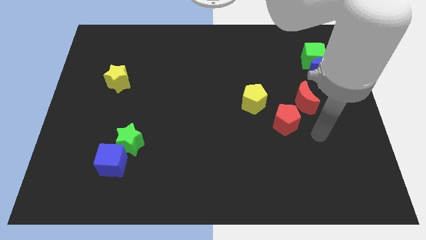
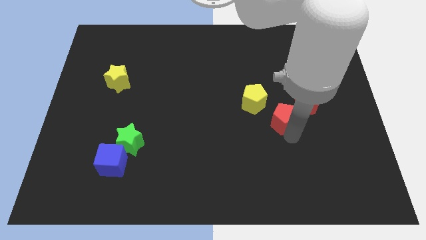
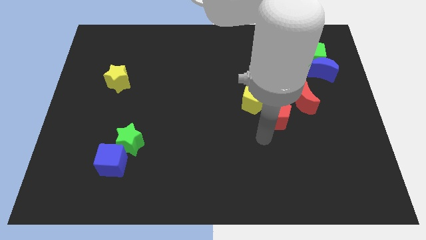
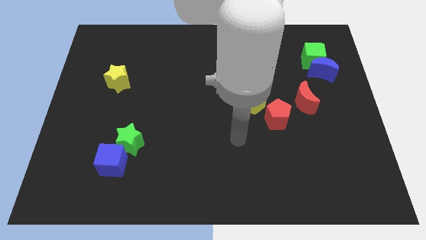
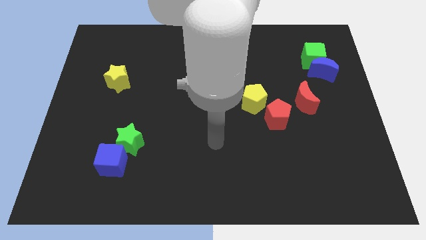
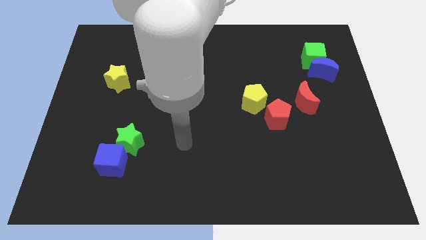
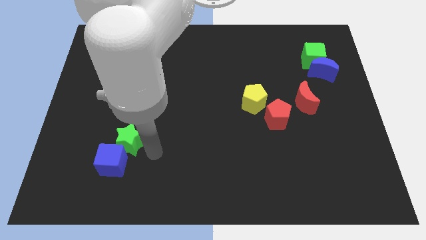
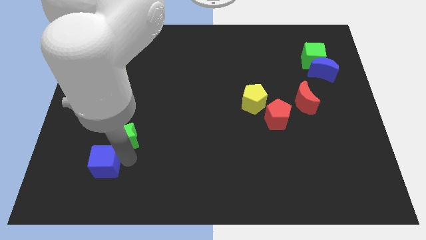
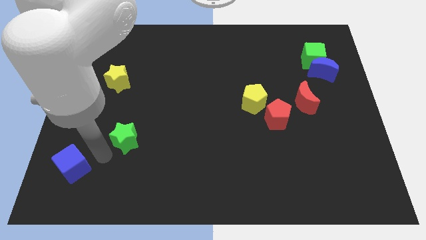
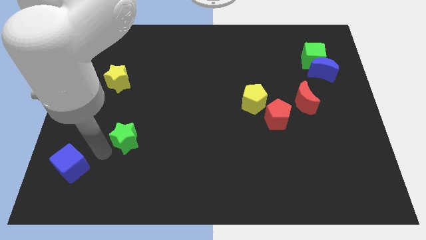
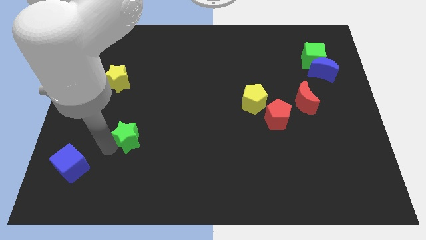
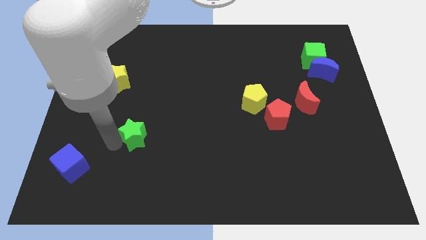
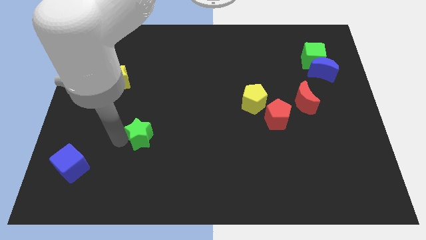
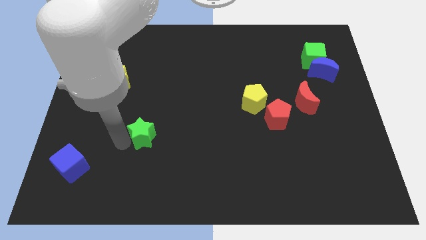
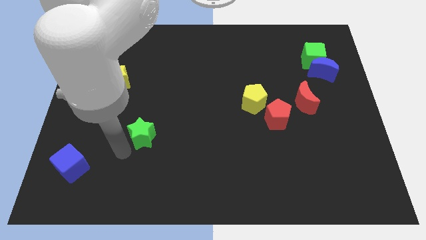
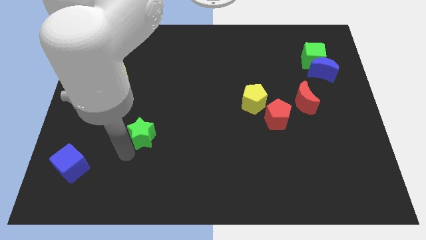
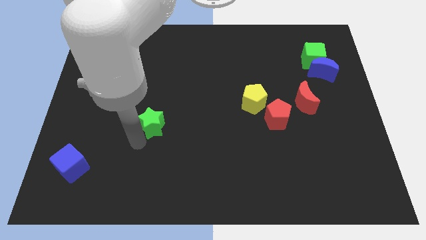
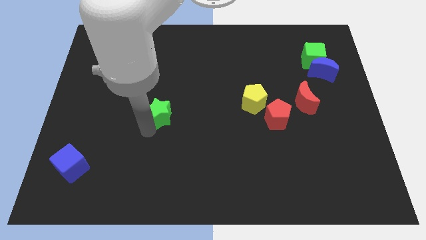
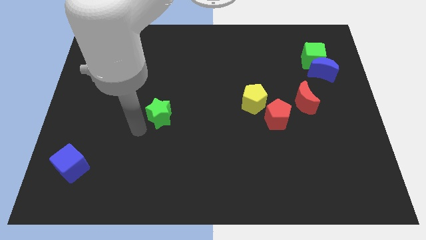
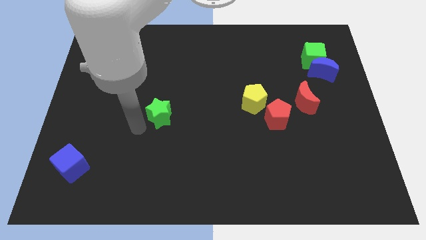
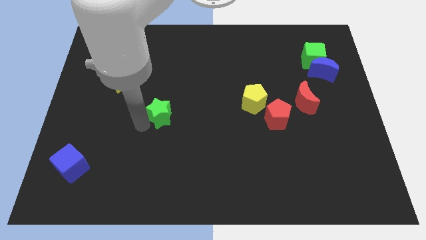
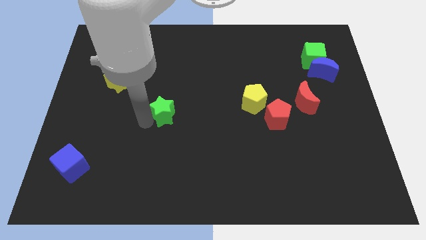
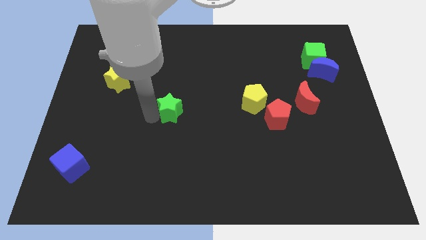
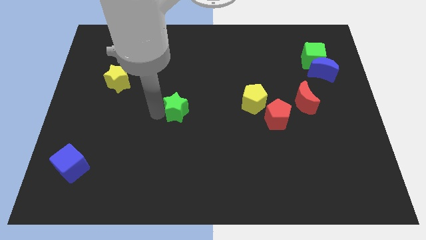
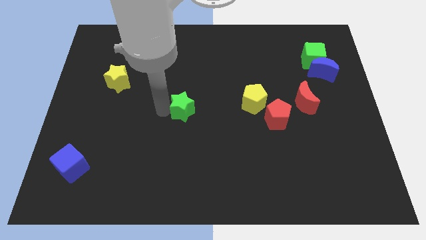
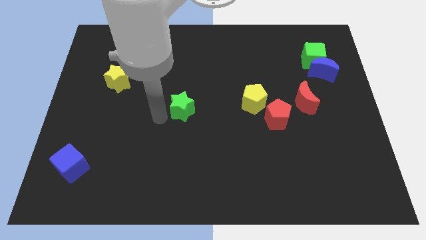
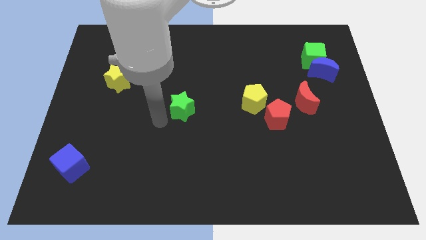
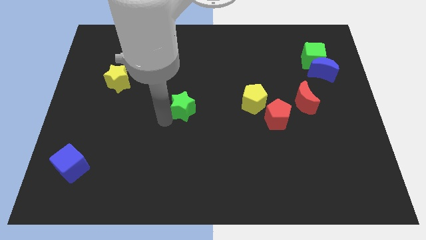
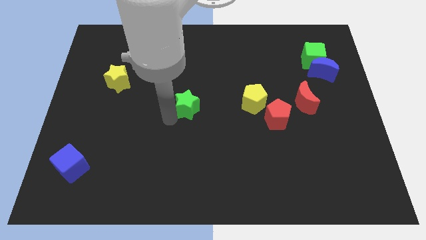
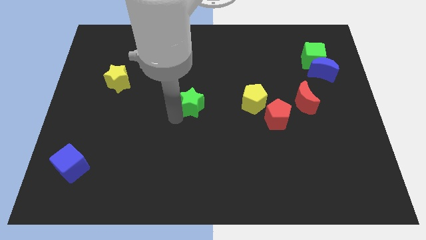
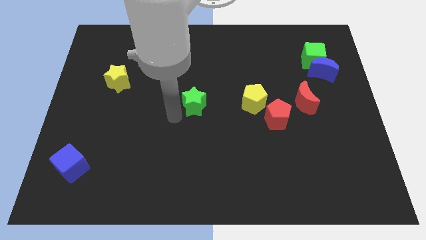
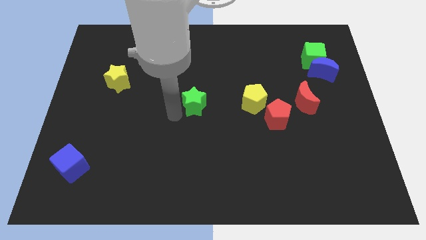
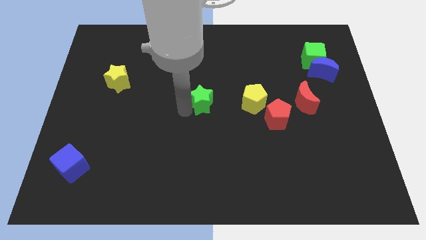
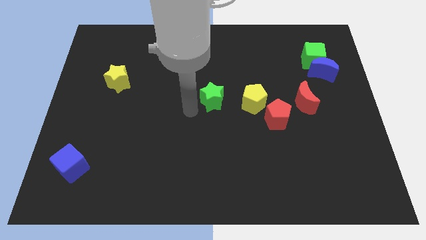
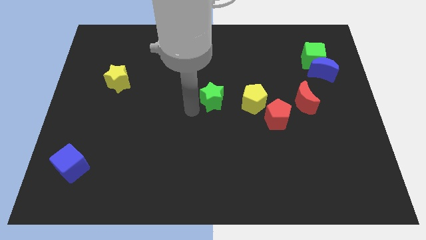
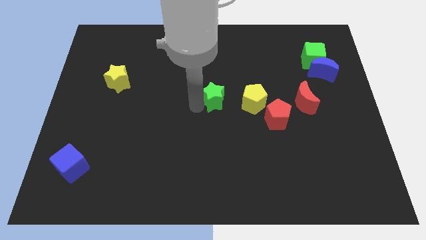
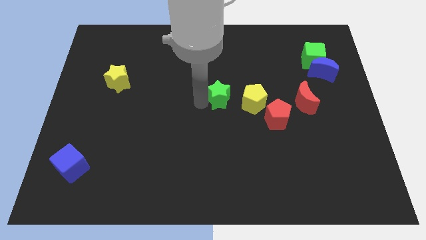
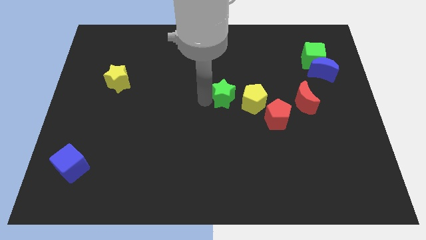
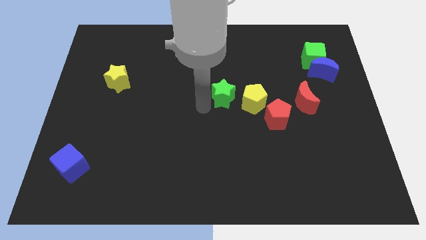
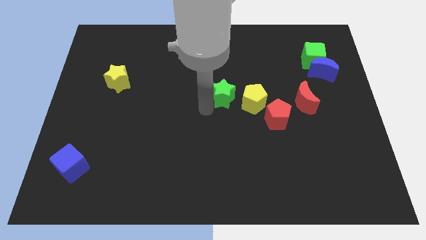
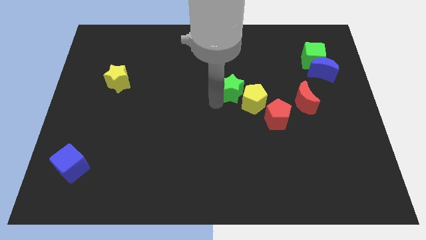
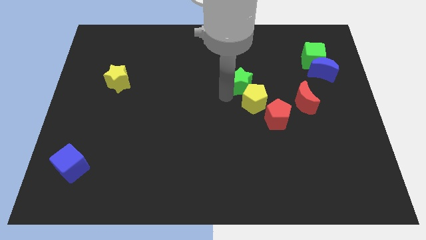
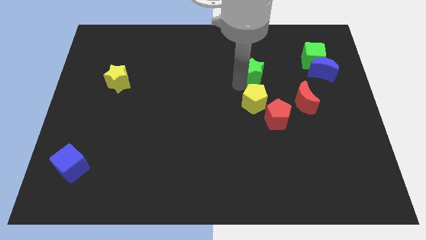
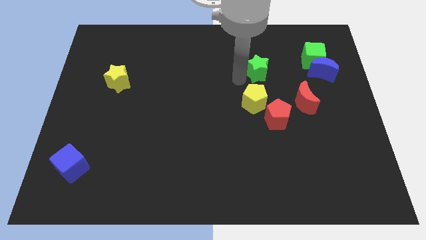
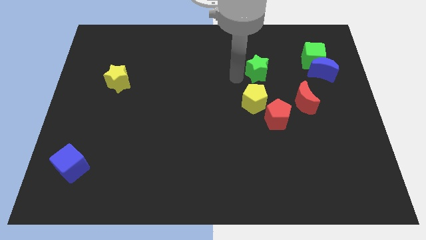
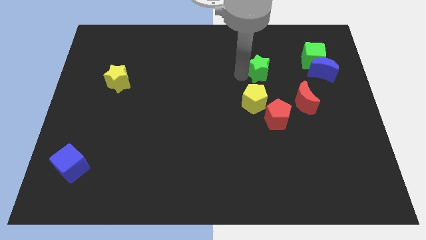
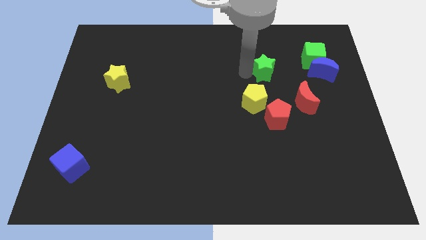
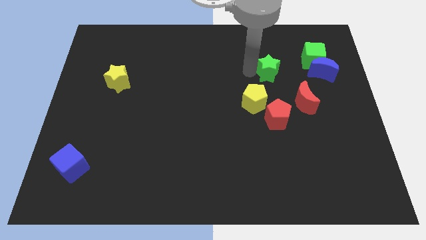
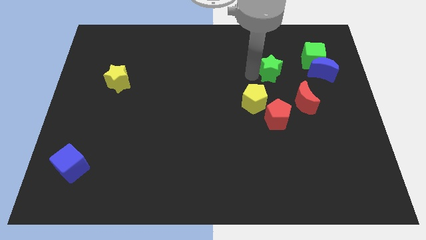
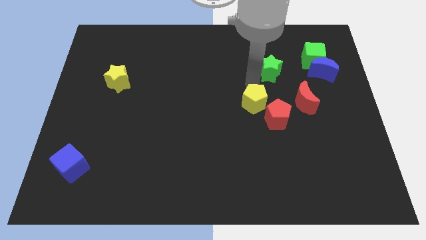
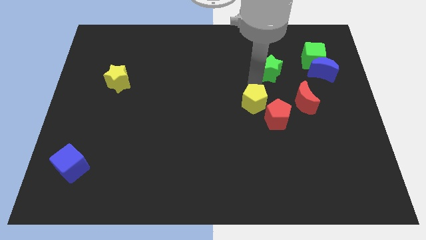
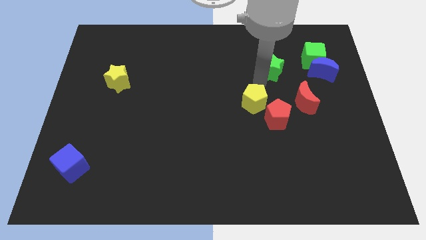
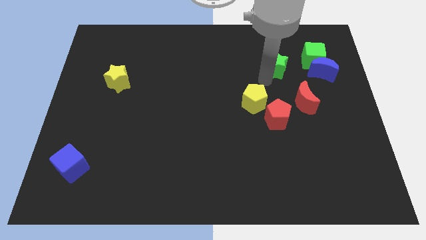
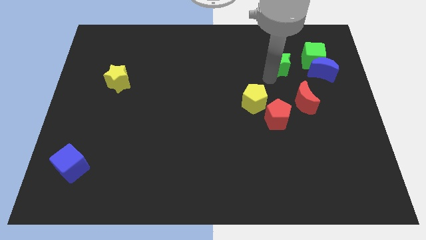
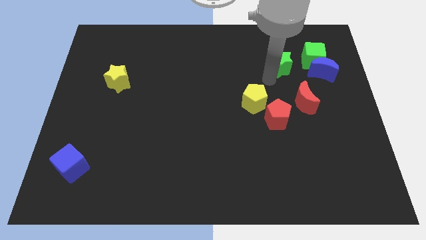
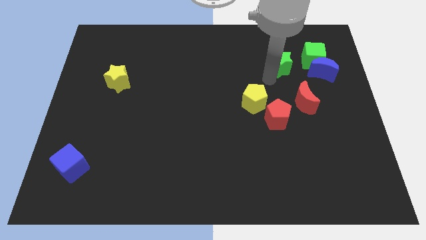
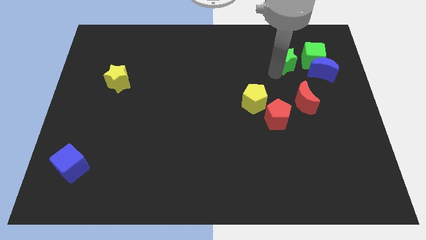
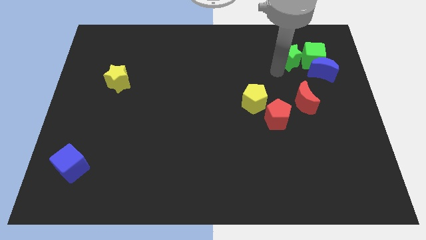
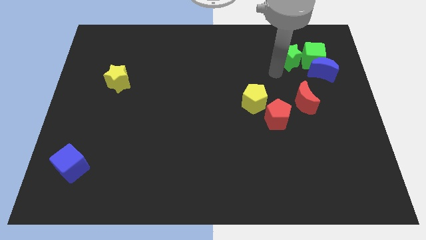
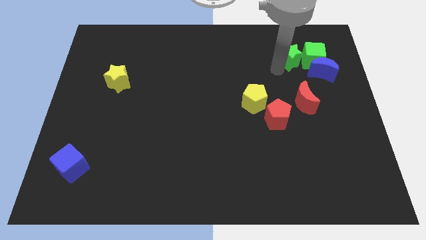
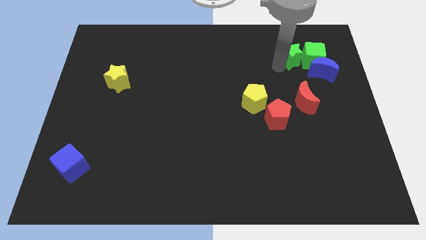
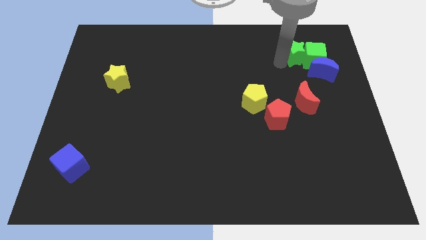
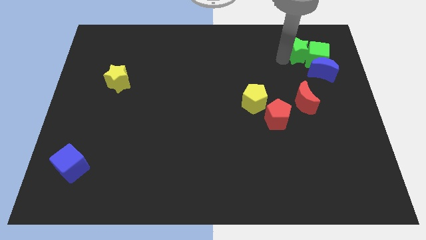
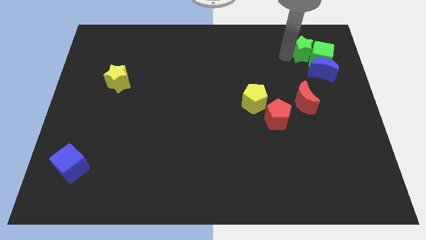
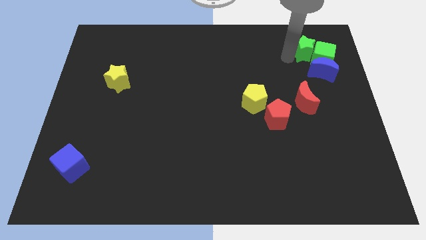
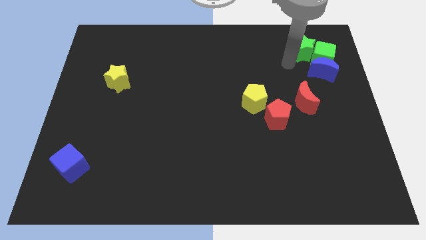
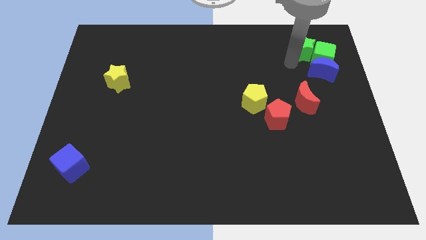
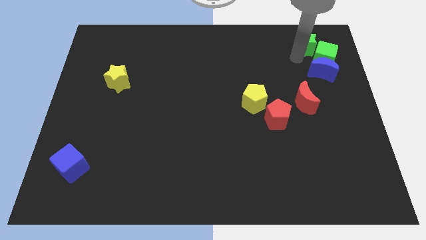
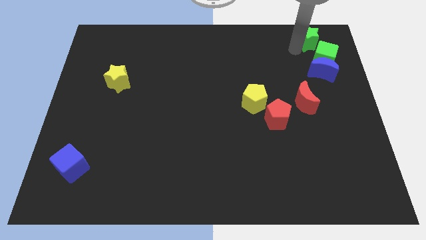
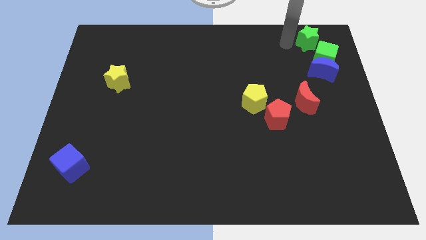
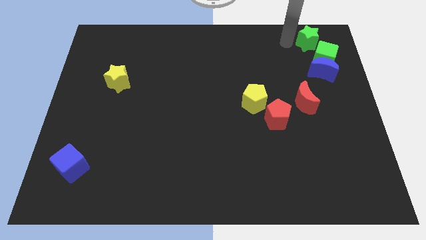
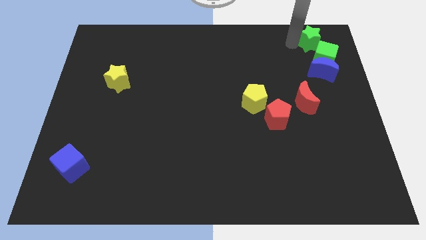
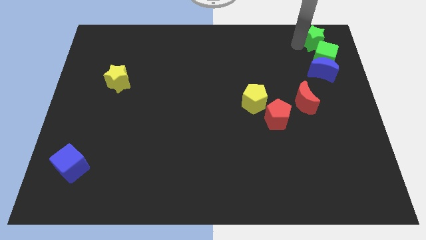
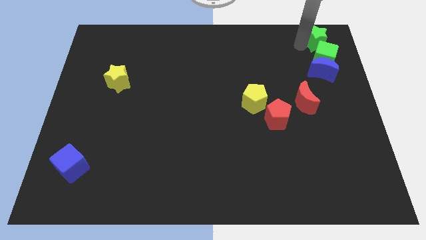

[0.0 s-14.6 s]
put the green star to the upper right corner
